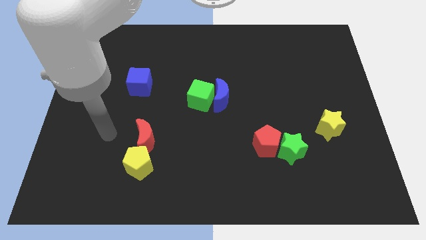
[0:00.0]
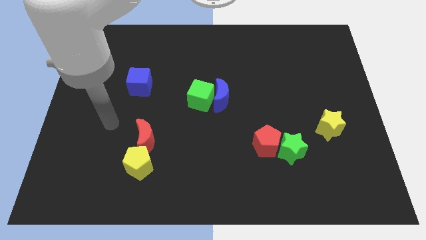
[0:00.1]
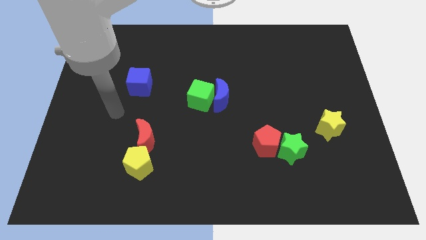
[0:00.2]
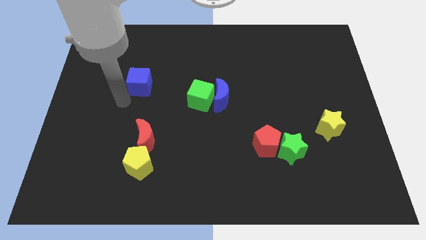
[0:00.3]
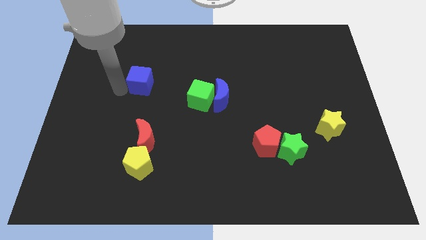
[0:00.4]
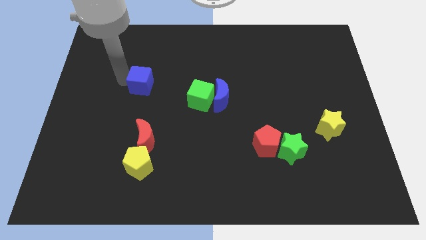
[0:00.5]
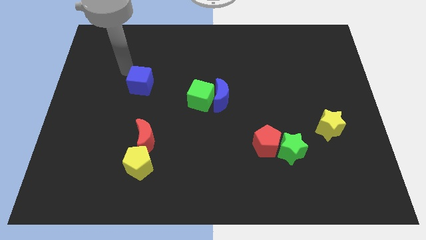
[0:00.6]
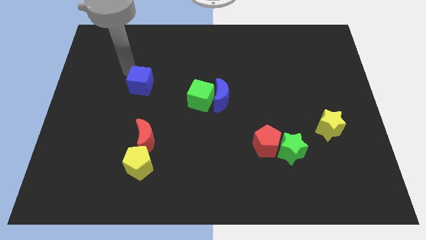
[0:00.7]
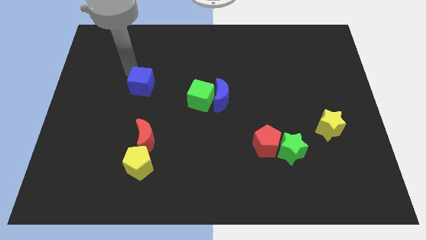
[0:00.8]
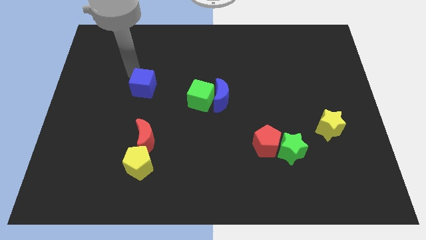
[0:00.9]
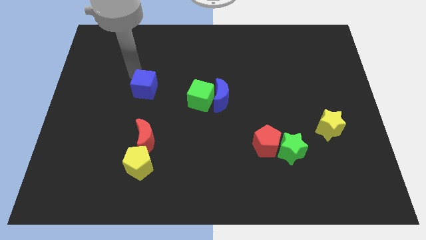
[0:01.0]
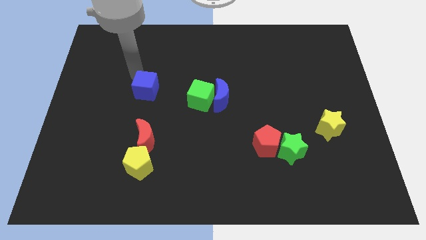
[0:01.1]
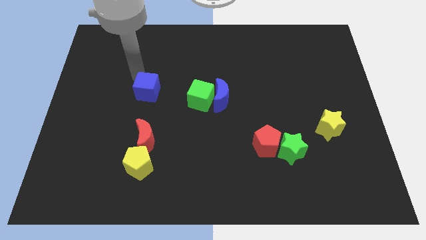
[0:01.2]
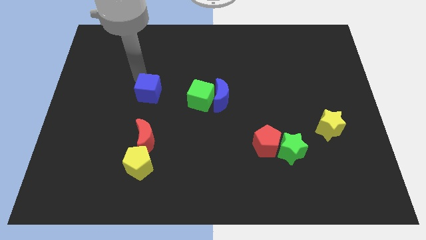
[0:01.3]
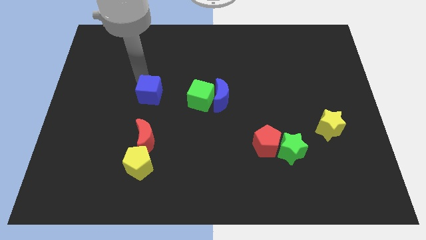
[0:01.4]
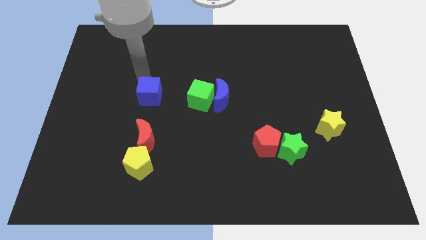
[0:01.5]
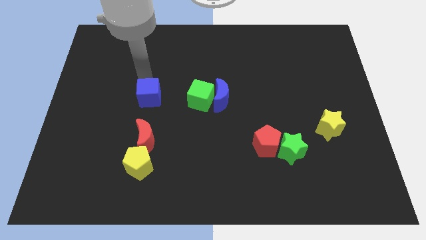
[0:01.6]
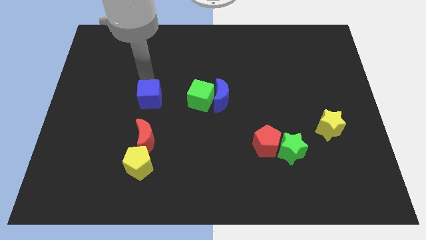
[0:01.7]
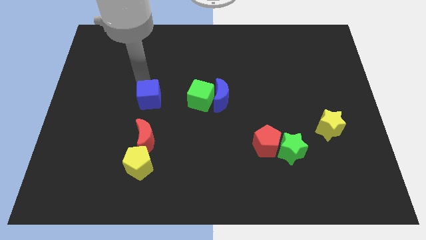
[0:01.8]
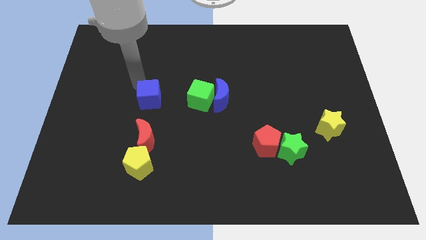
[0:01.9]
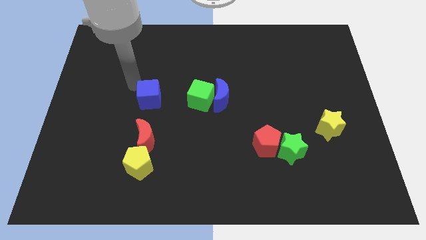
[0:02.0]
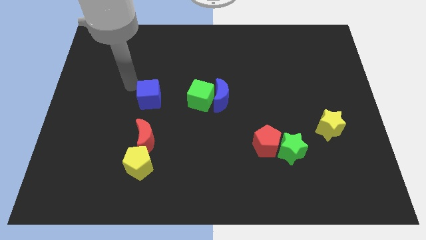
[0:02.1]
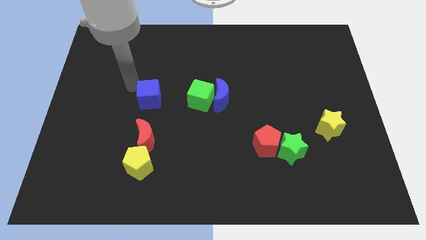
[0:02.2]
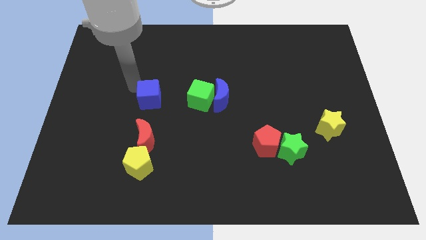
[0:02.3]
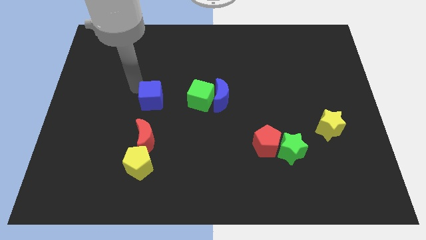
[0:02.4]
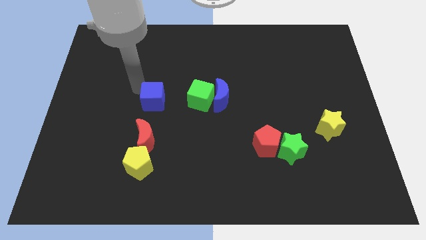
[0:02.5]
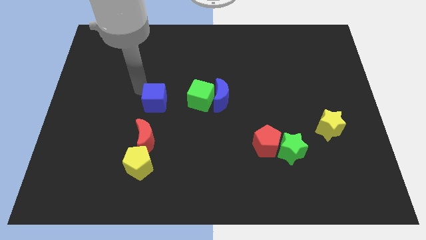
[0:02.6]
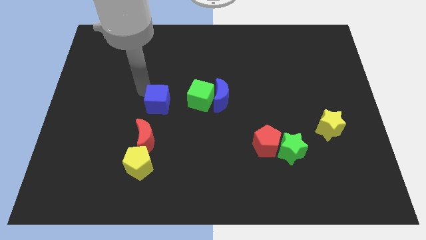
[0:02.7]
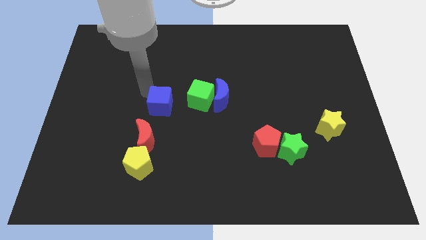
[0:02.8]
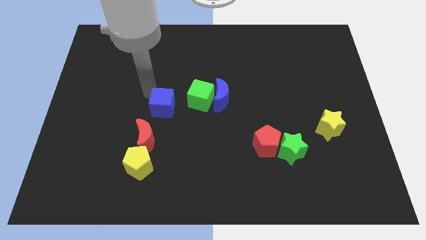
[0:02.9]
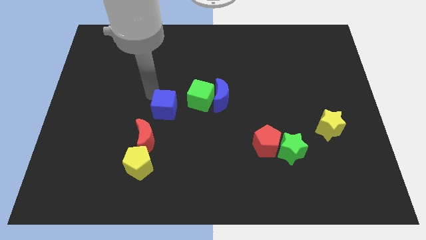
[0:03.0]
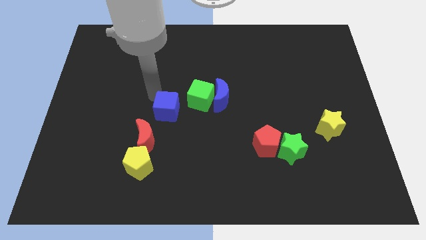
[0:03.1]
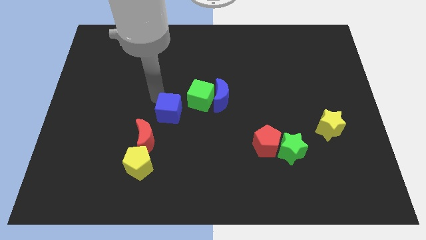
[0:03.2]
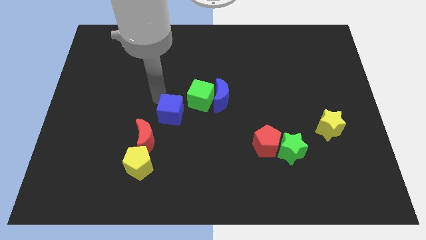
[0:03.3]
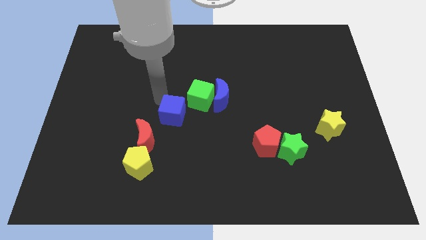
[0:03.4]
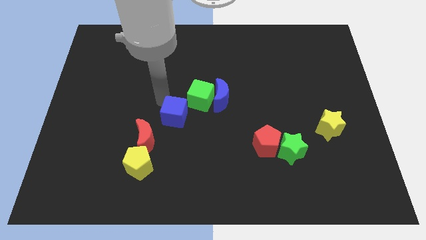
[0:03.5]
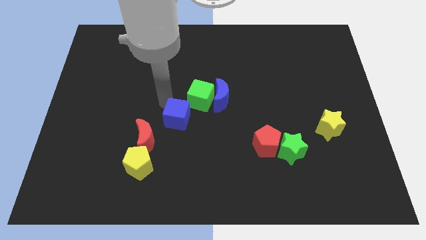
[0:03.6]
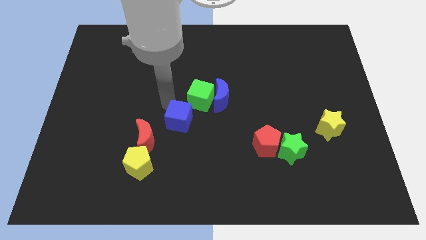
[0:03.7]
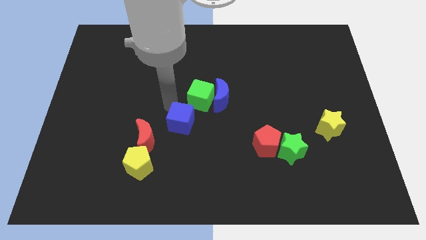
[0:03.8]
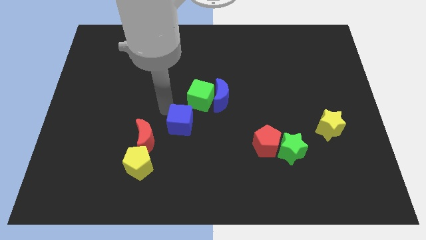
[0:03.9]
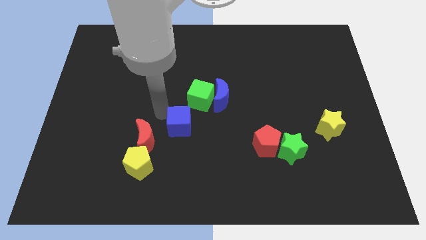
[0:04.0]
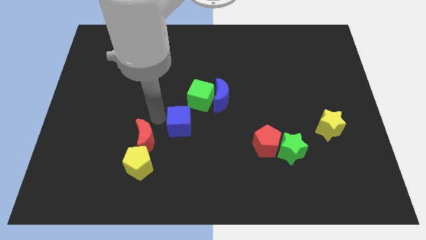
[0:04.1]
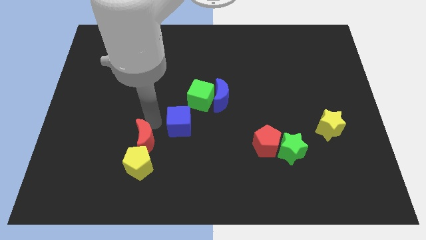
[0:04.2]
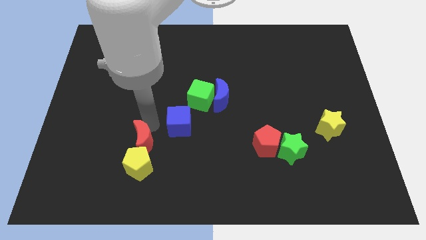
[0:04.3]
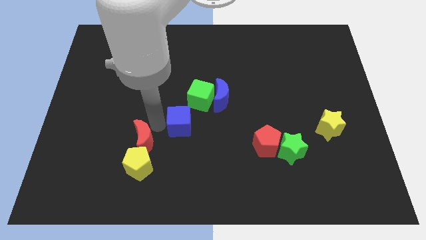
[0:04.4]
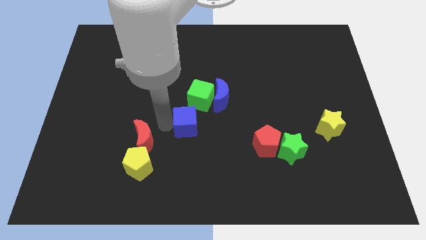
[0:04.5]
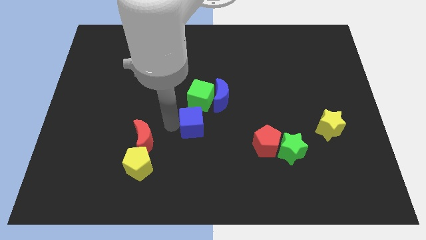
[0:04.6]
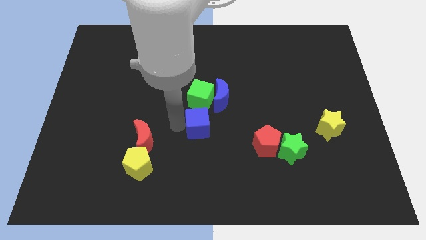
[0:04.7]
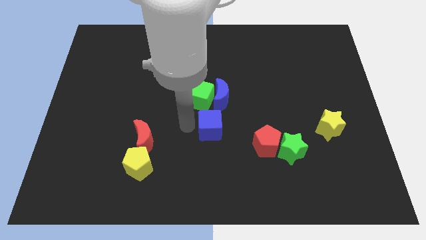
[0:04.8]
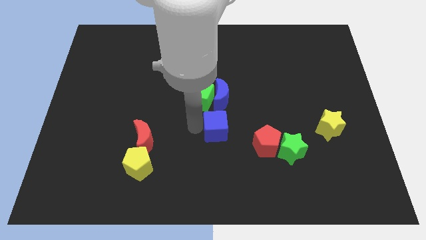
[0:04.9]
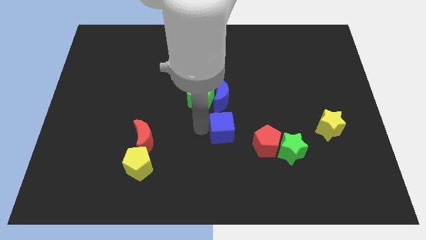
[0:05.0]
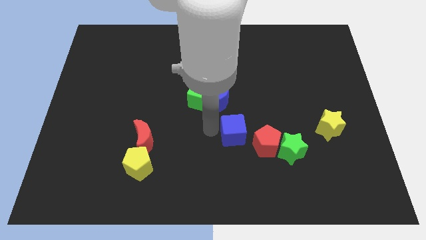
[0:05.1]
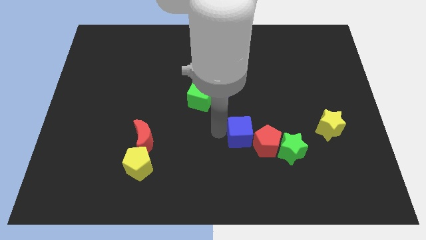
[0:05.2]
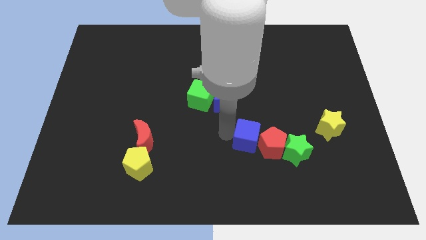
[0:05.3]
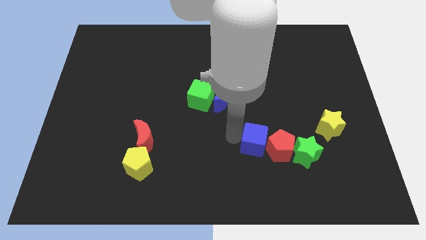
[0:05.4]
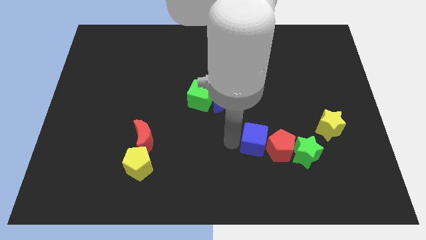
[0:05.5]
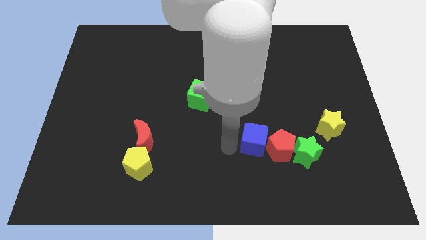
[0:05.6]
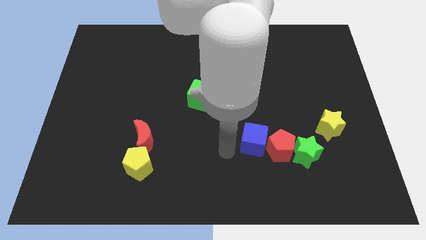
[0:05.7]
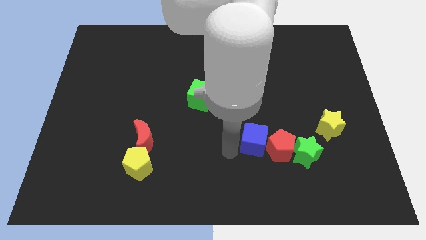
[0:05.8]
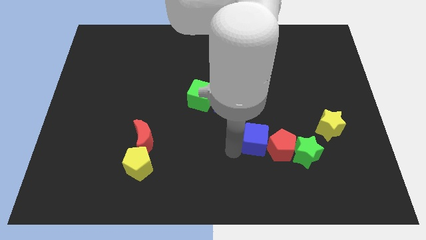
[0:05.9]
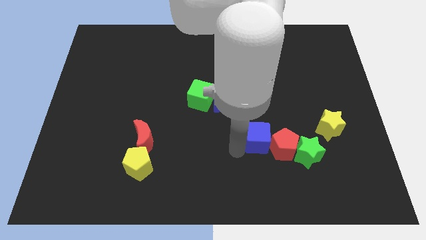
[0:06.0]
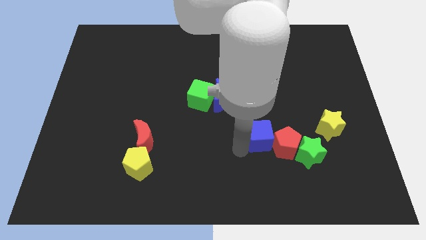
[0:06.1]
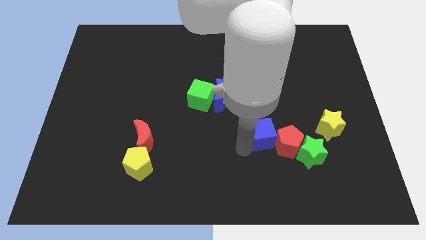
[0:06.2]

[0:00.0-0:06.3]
push the blue cube diagonally up and to the left of the green star

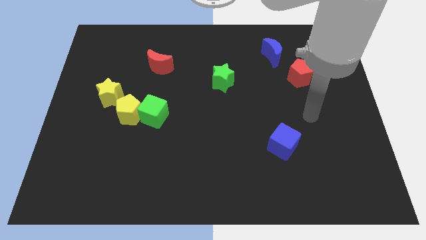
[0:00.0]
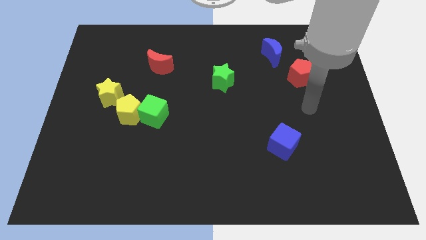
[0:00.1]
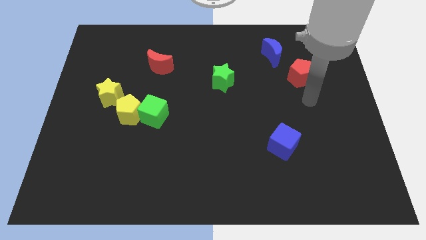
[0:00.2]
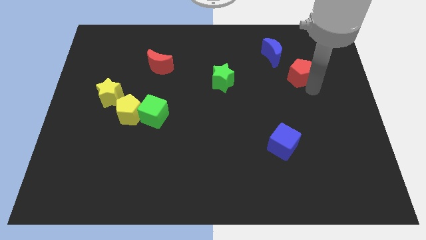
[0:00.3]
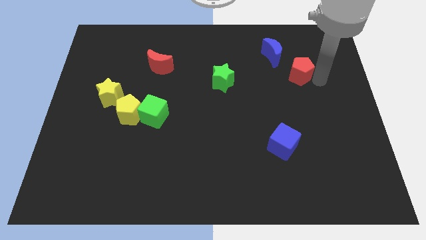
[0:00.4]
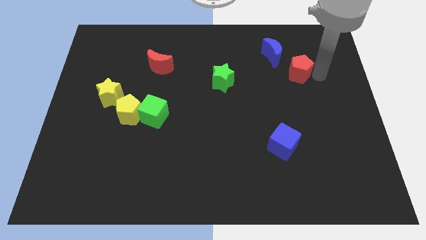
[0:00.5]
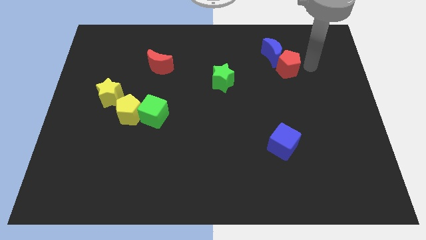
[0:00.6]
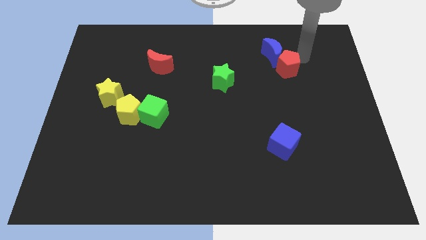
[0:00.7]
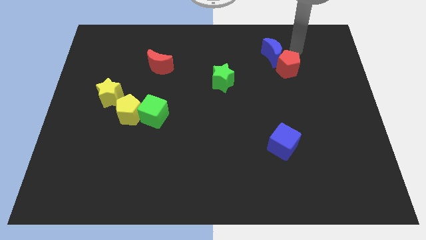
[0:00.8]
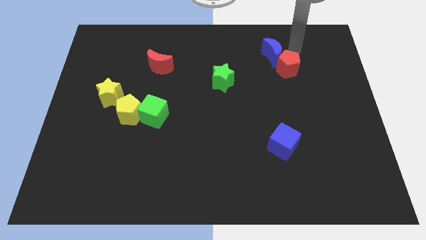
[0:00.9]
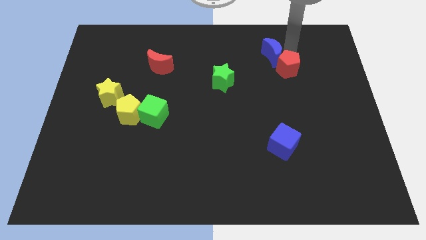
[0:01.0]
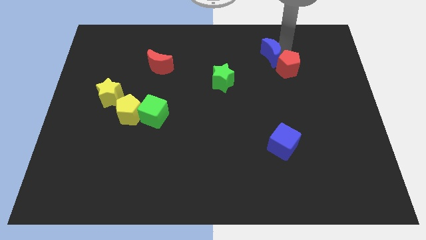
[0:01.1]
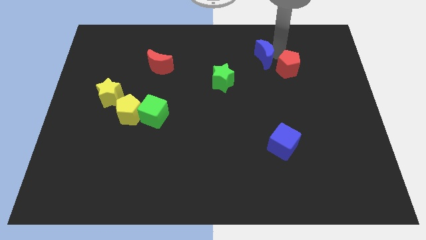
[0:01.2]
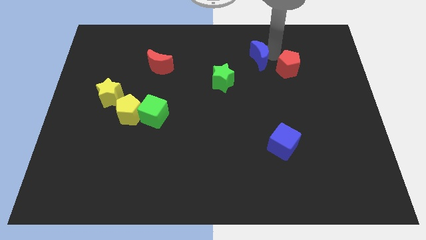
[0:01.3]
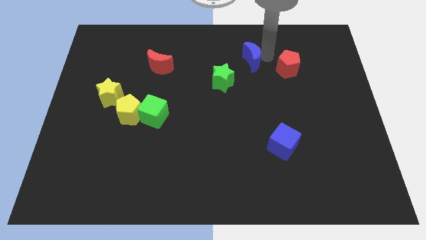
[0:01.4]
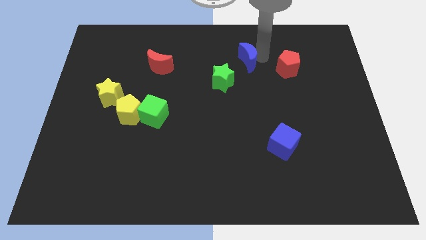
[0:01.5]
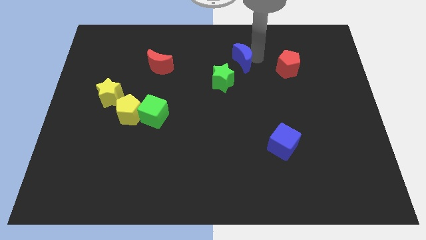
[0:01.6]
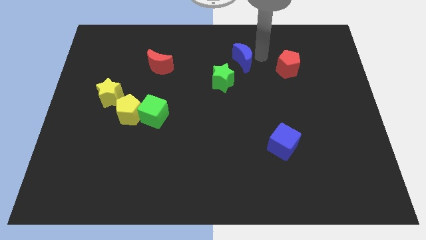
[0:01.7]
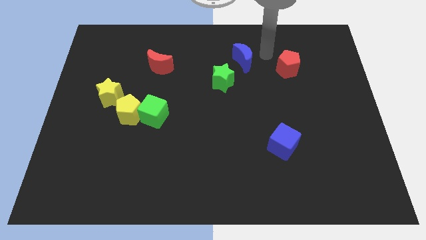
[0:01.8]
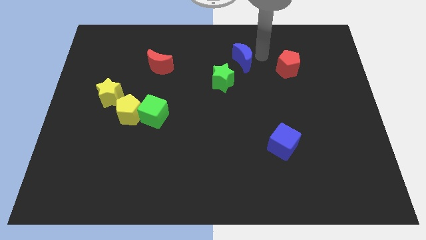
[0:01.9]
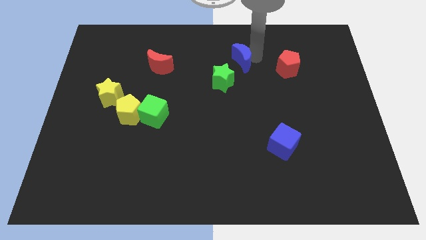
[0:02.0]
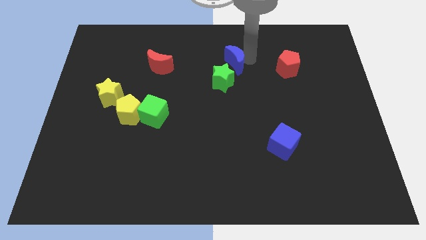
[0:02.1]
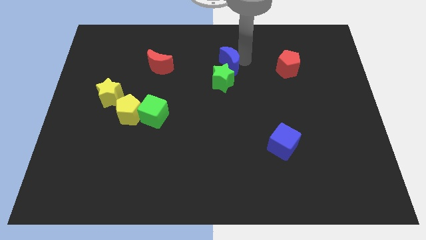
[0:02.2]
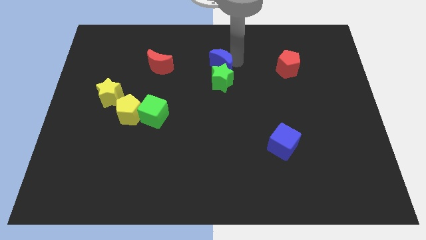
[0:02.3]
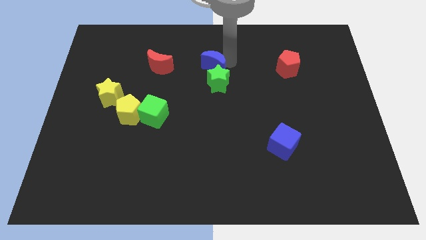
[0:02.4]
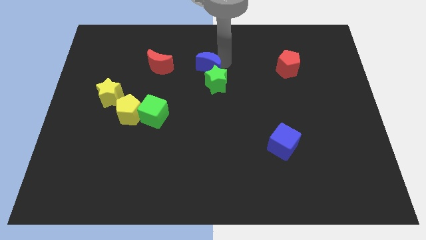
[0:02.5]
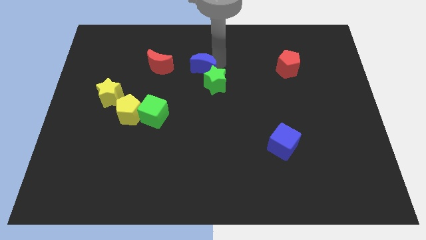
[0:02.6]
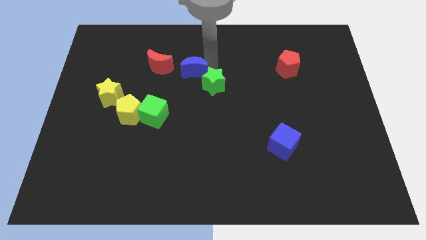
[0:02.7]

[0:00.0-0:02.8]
move the blue moon to the left of the green star
